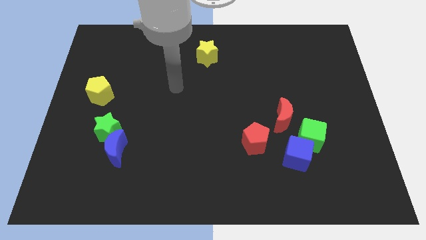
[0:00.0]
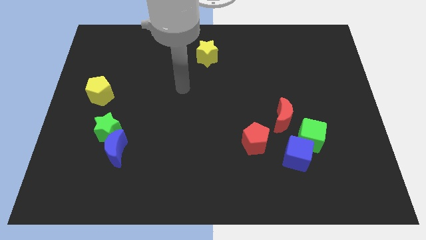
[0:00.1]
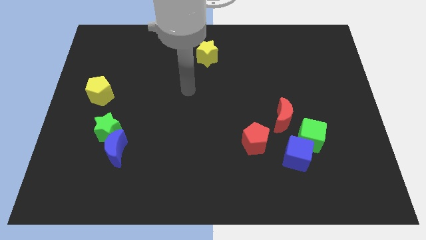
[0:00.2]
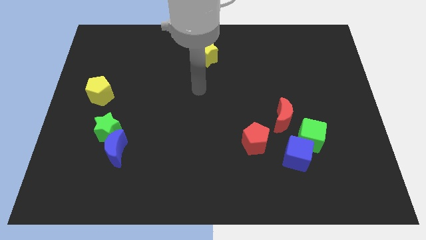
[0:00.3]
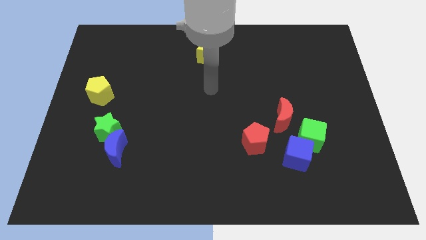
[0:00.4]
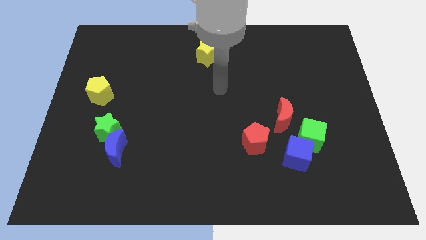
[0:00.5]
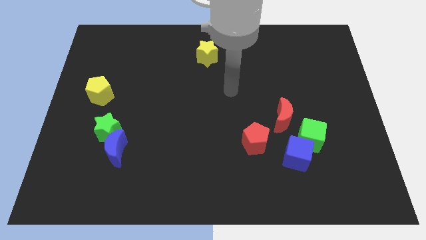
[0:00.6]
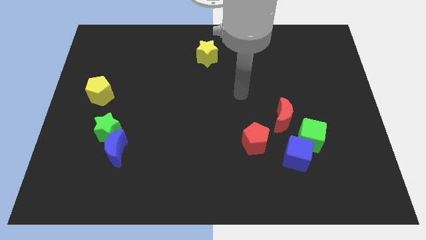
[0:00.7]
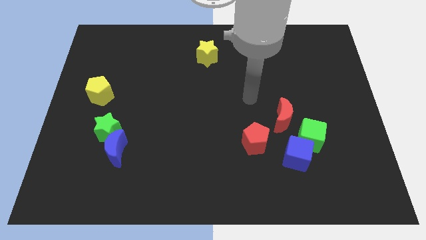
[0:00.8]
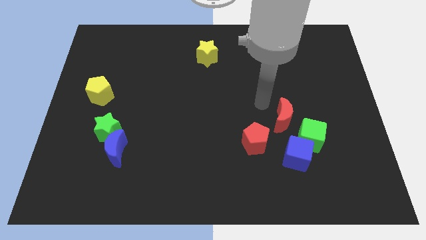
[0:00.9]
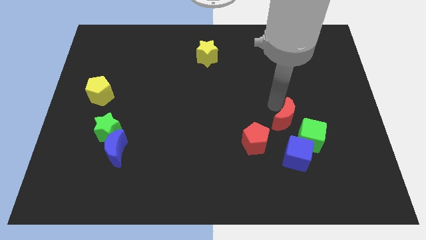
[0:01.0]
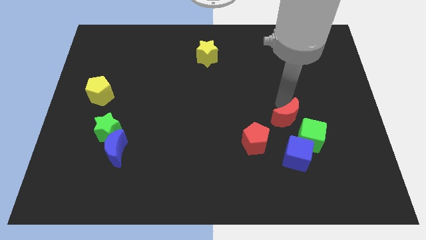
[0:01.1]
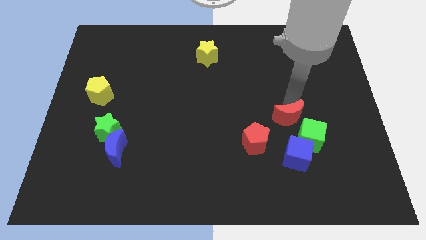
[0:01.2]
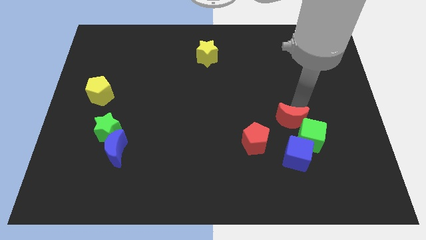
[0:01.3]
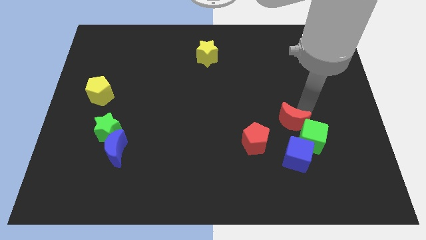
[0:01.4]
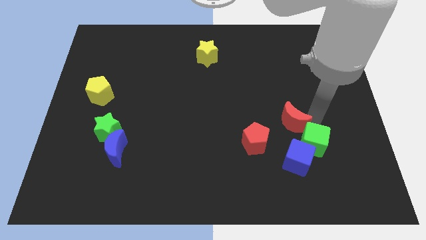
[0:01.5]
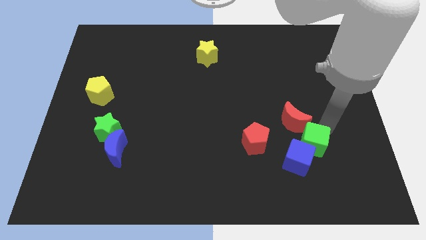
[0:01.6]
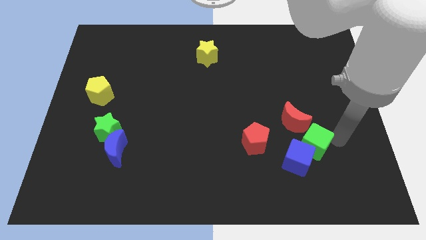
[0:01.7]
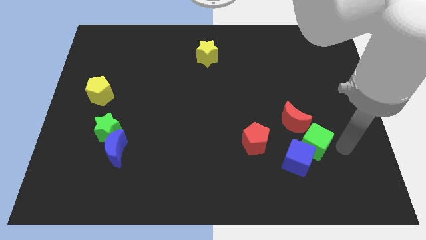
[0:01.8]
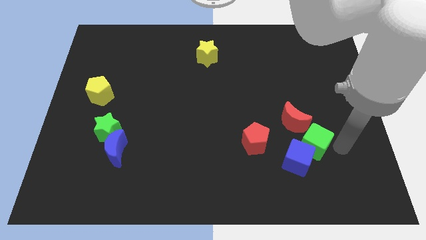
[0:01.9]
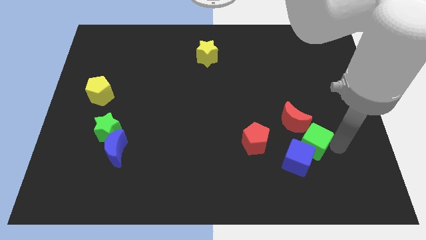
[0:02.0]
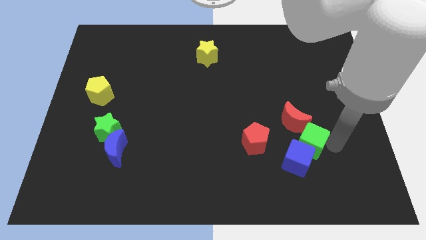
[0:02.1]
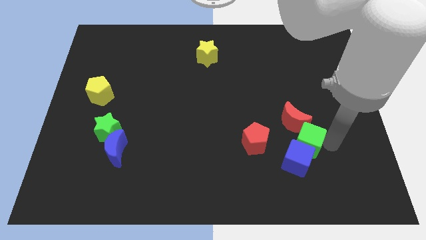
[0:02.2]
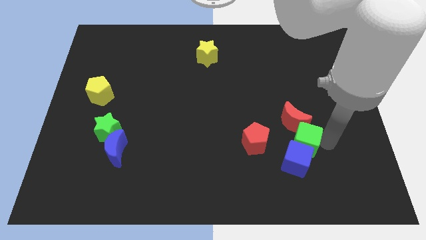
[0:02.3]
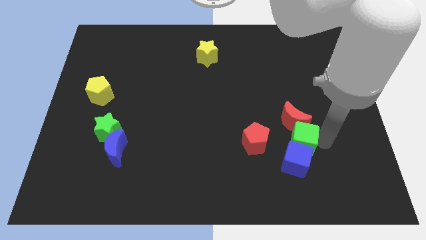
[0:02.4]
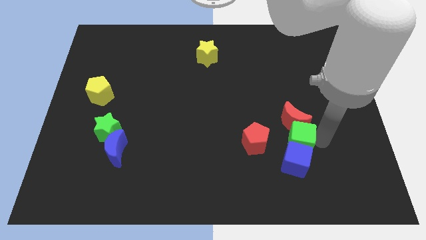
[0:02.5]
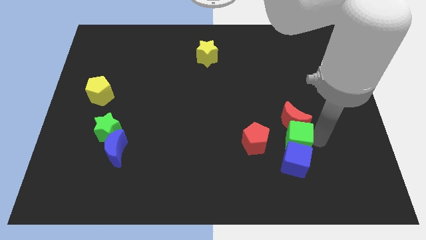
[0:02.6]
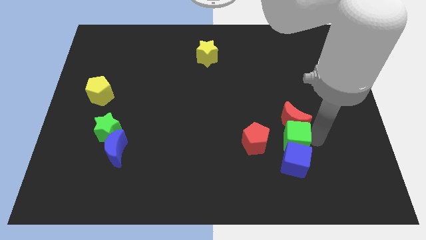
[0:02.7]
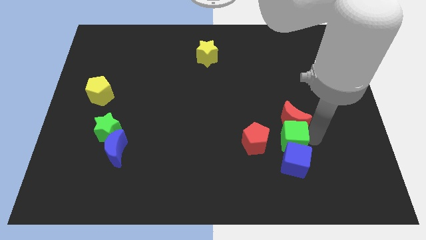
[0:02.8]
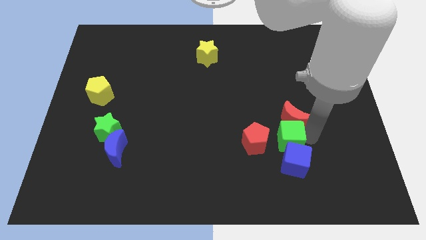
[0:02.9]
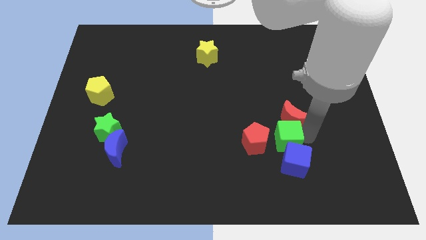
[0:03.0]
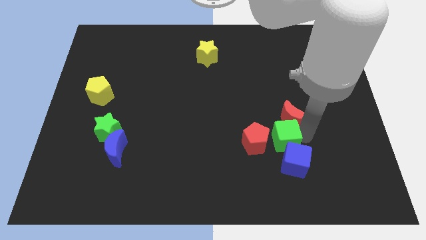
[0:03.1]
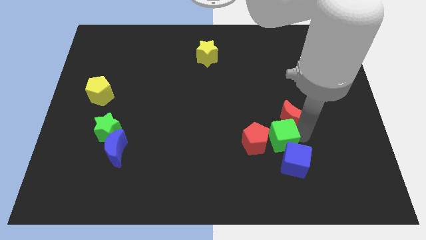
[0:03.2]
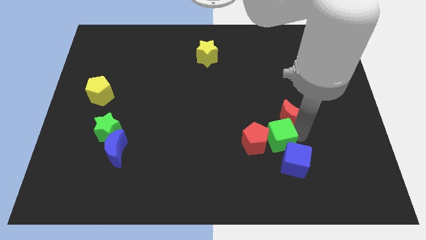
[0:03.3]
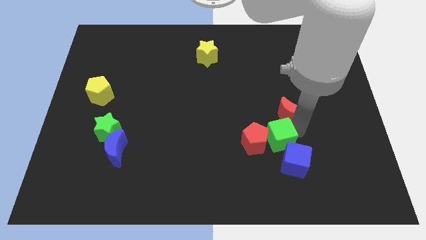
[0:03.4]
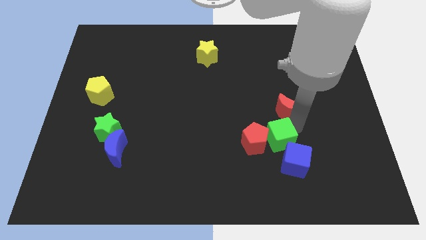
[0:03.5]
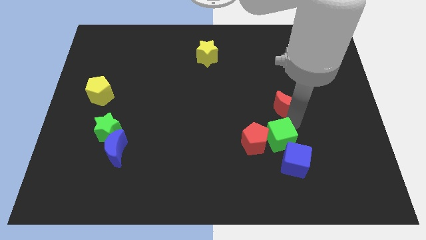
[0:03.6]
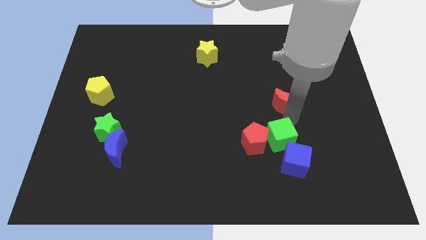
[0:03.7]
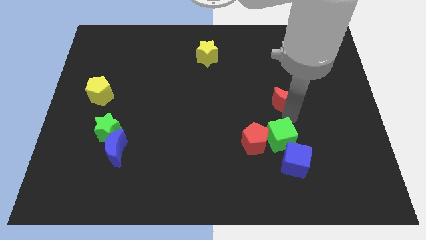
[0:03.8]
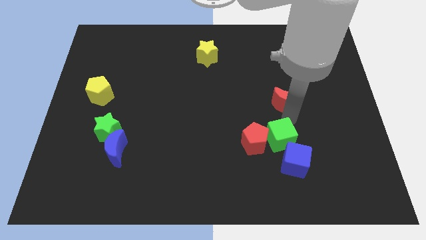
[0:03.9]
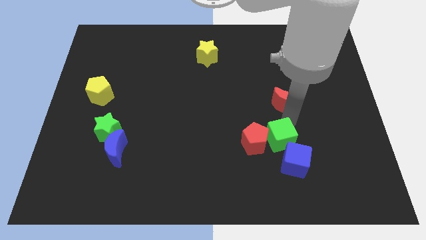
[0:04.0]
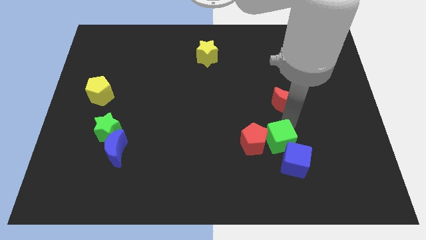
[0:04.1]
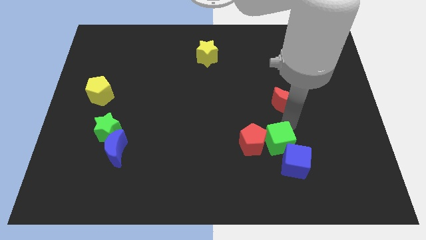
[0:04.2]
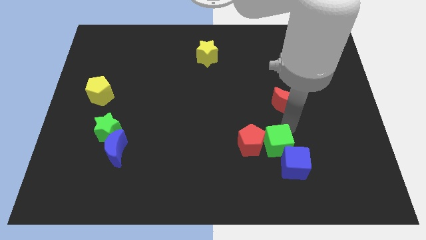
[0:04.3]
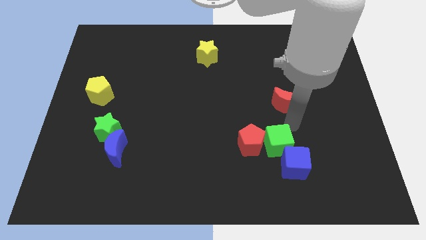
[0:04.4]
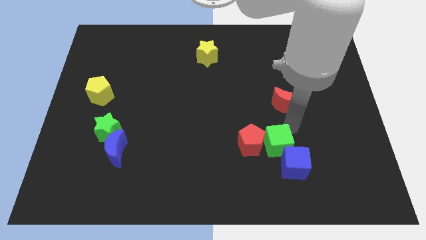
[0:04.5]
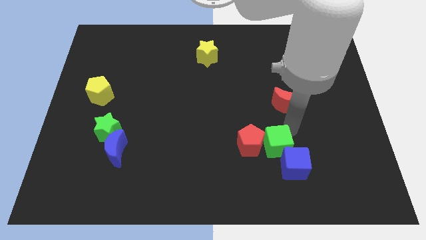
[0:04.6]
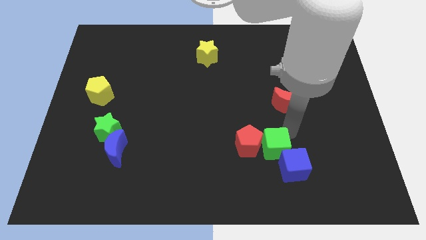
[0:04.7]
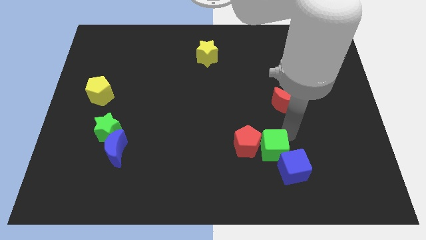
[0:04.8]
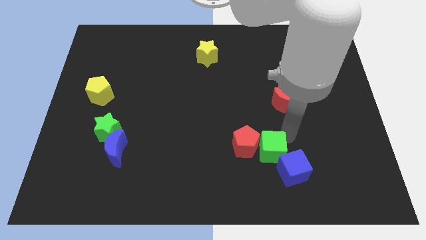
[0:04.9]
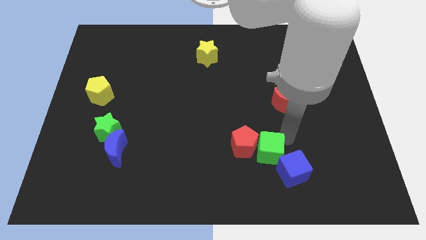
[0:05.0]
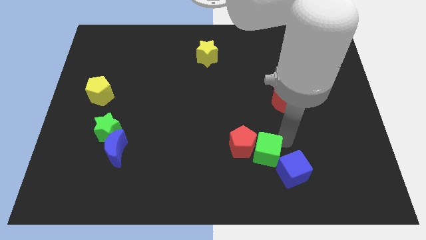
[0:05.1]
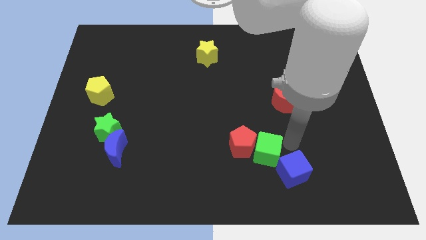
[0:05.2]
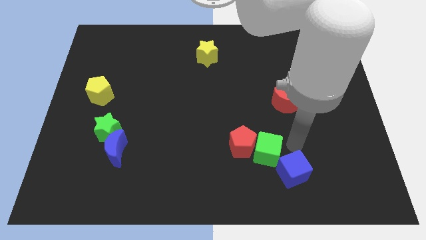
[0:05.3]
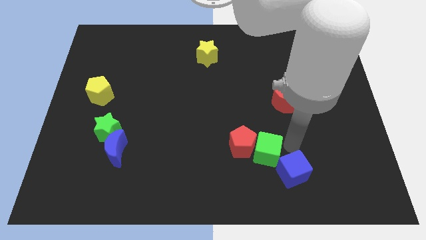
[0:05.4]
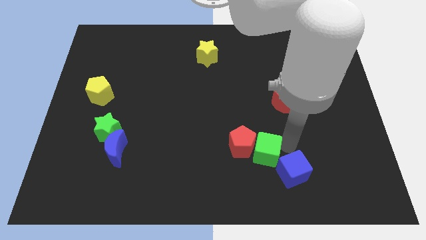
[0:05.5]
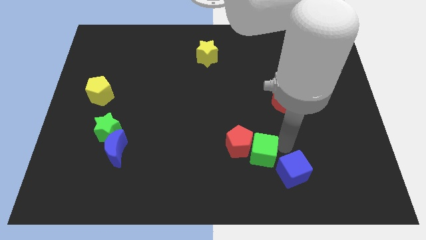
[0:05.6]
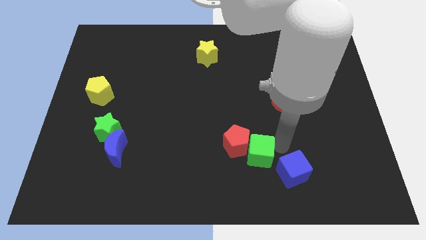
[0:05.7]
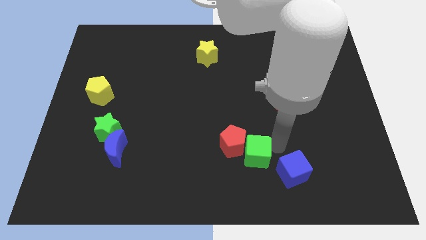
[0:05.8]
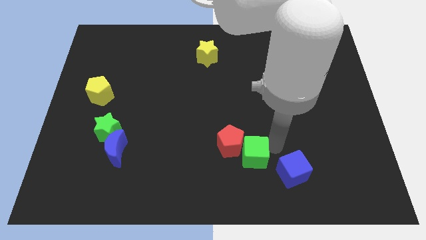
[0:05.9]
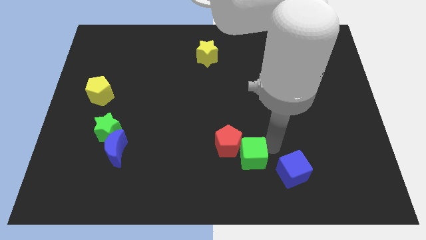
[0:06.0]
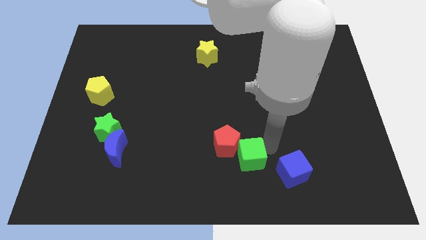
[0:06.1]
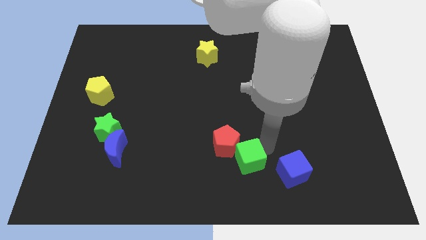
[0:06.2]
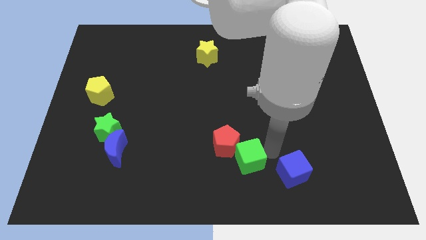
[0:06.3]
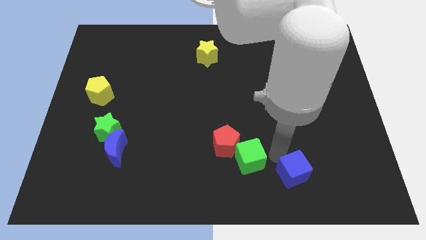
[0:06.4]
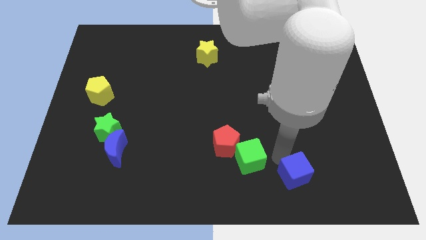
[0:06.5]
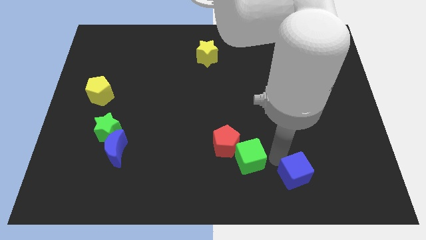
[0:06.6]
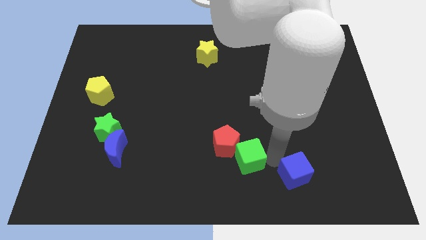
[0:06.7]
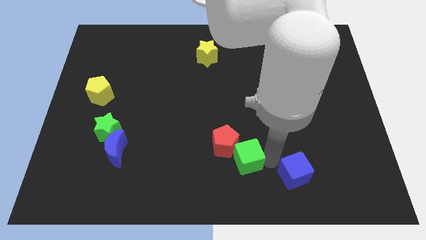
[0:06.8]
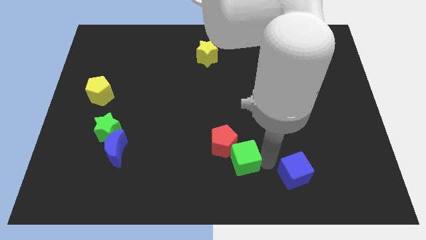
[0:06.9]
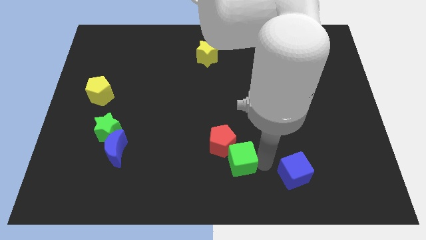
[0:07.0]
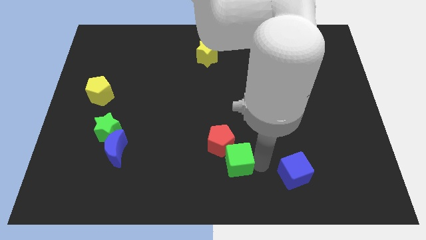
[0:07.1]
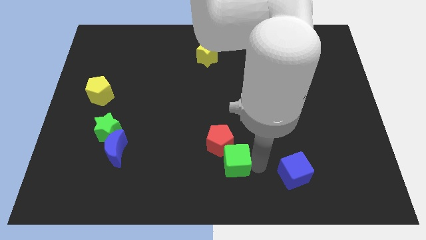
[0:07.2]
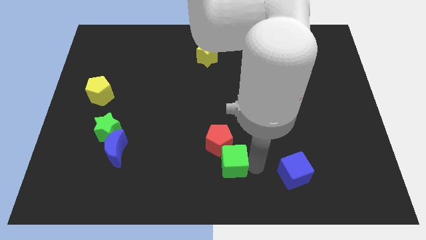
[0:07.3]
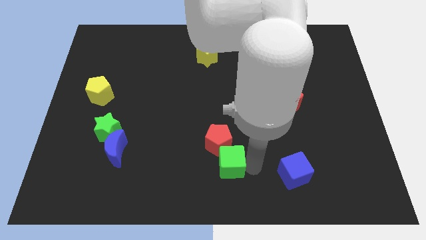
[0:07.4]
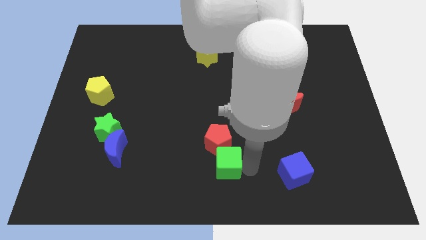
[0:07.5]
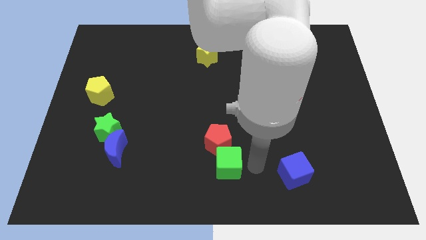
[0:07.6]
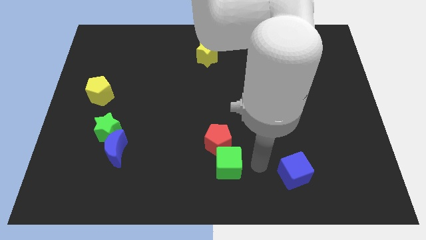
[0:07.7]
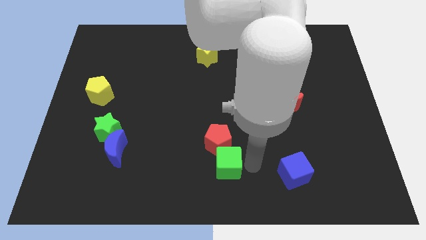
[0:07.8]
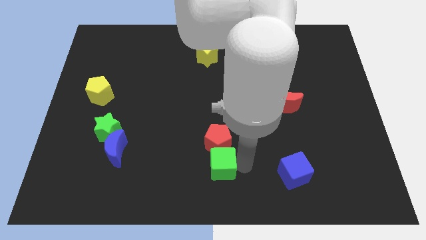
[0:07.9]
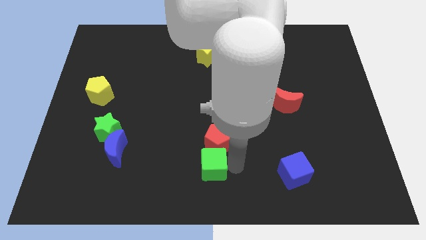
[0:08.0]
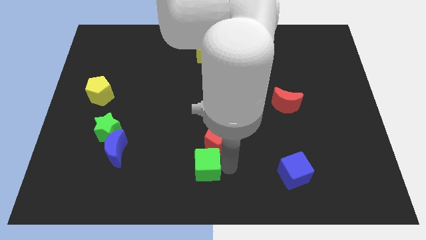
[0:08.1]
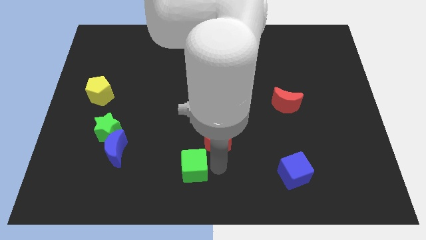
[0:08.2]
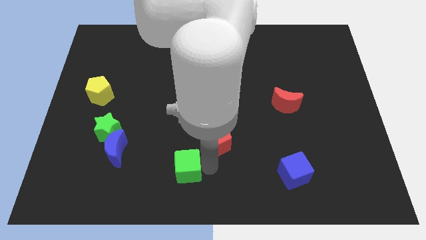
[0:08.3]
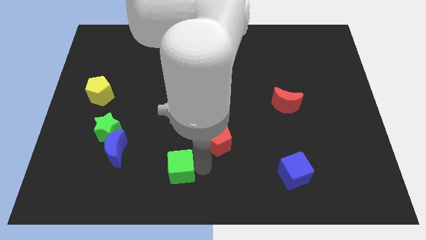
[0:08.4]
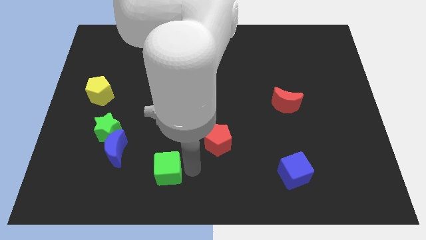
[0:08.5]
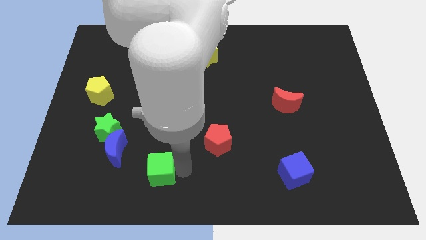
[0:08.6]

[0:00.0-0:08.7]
push the green cube to the bottom right side of the blue moon
